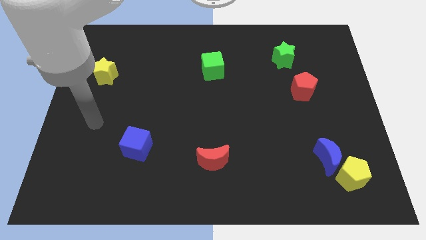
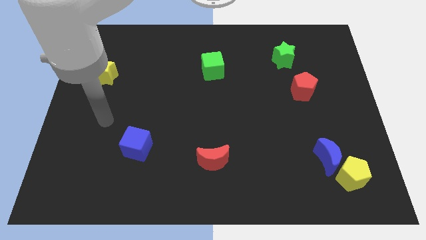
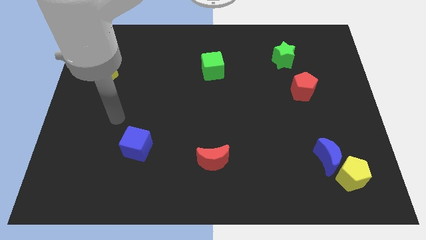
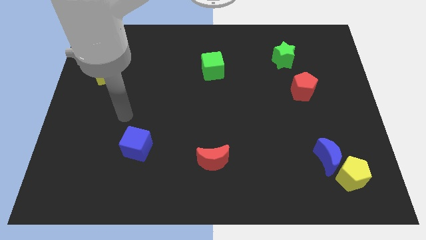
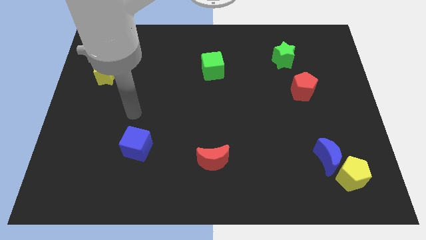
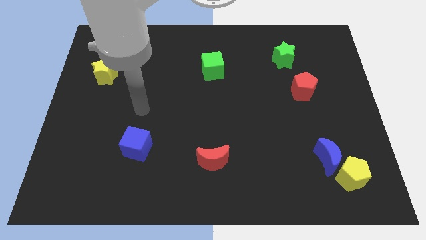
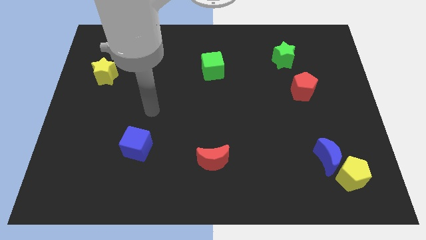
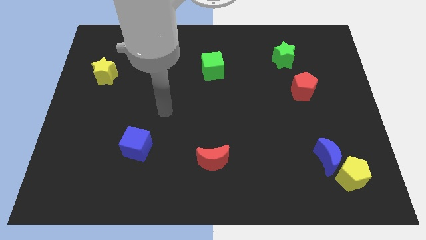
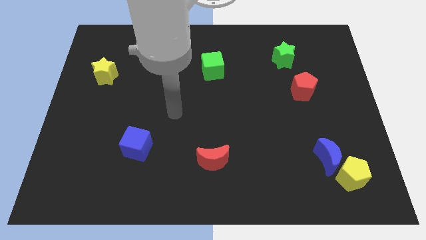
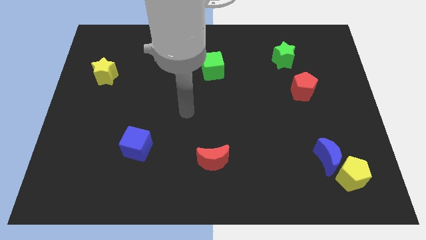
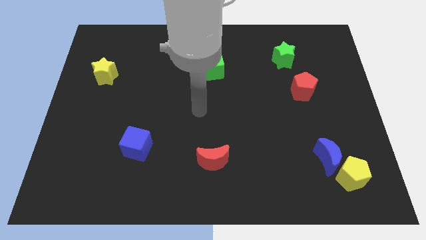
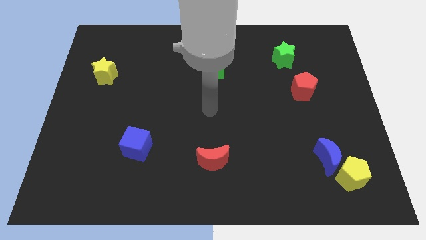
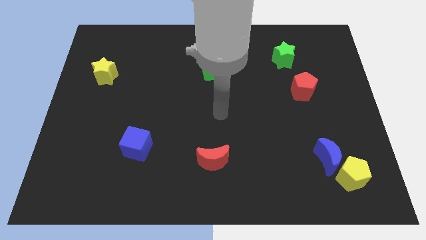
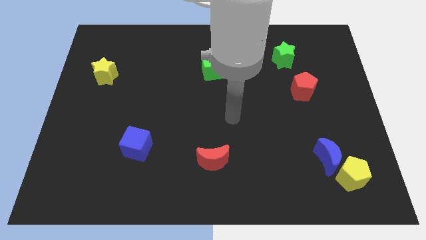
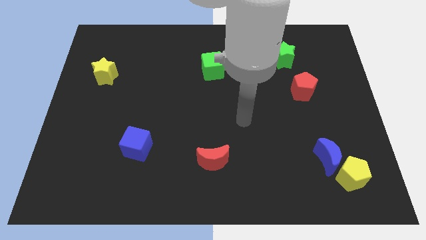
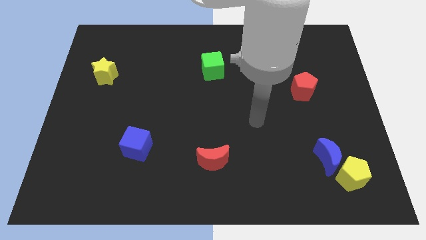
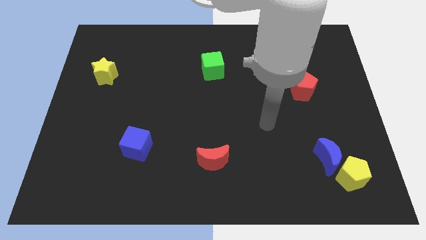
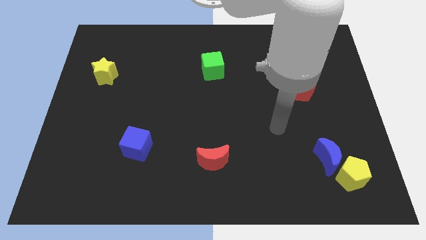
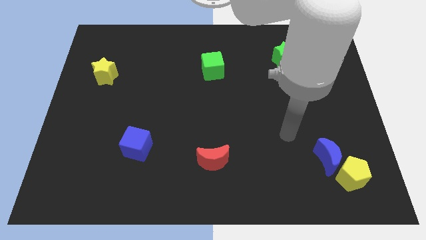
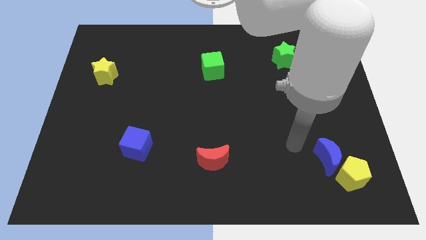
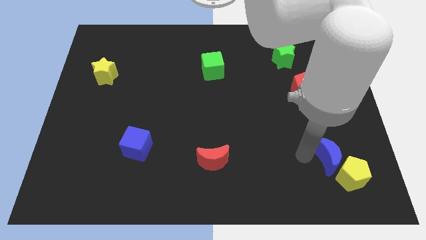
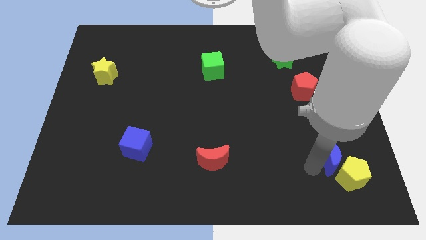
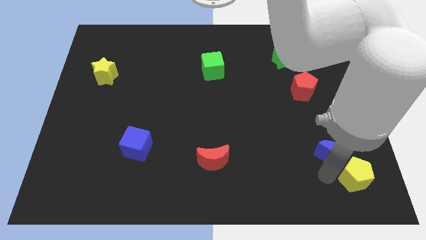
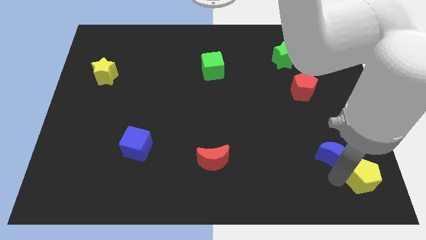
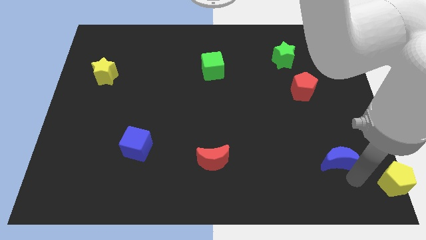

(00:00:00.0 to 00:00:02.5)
separate the blue moon from the yellow pentagon

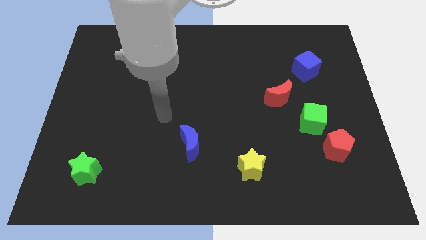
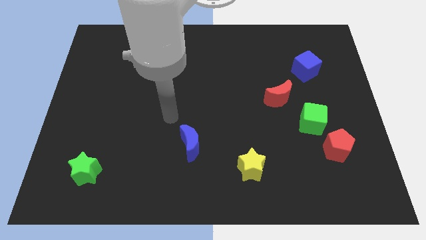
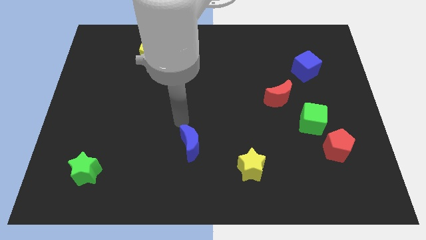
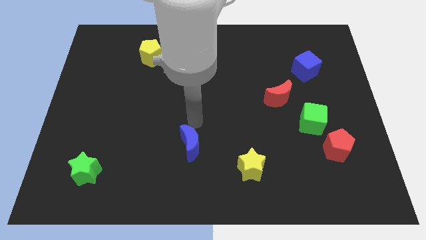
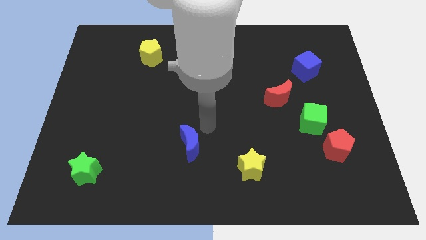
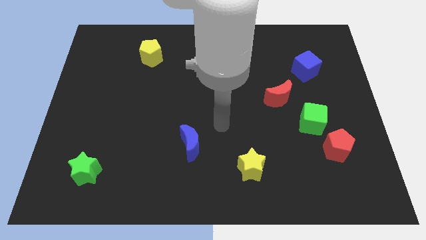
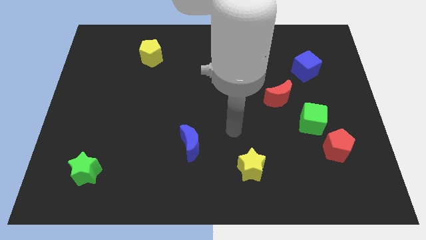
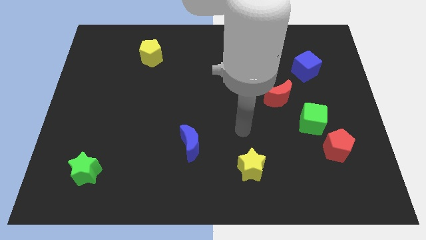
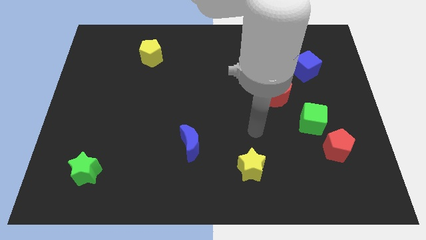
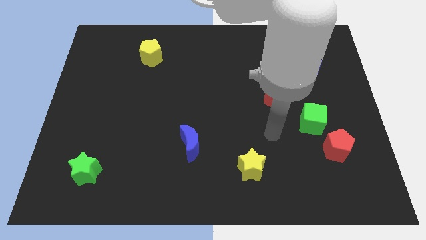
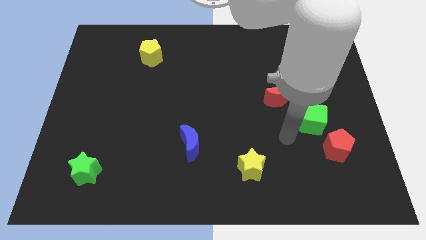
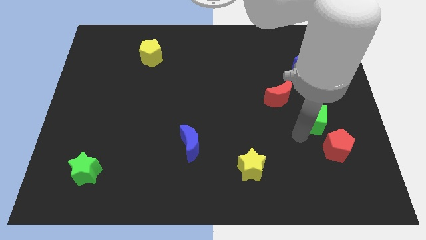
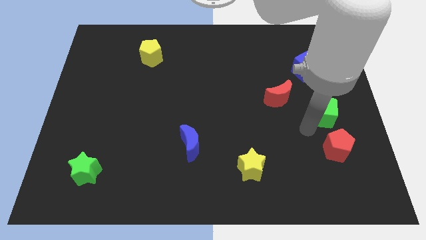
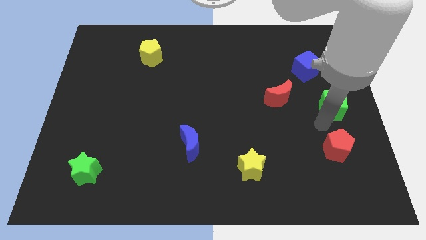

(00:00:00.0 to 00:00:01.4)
move the red pentagon away from the green cube

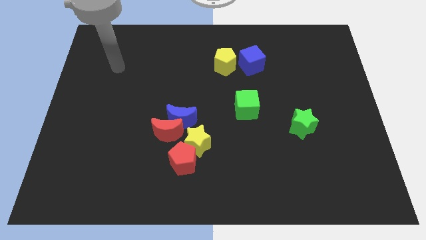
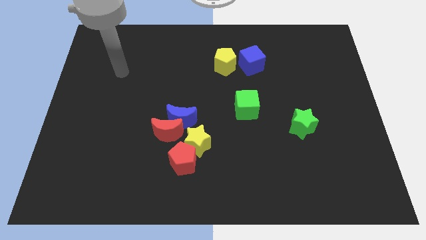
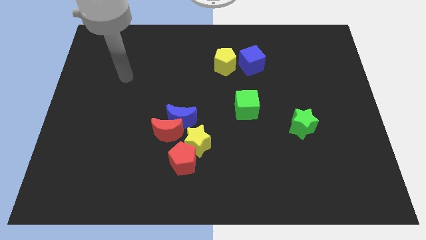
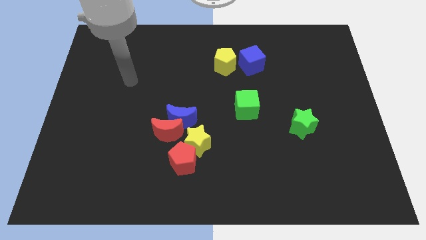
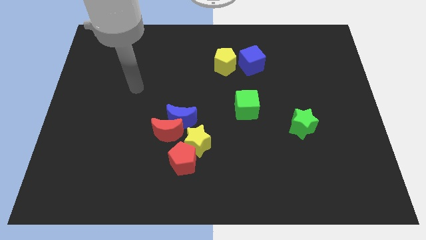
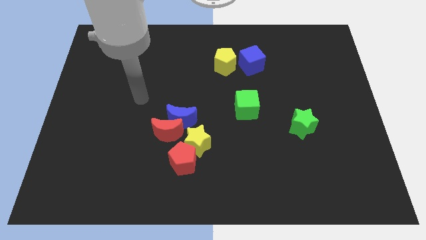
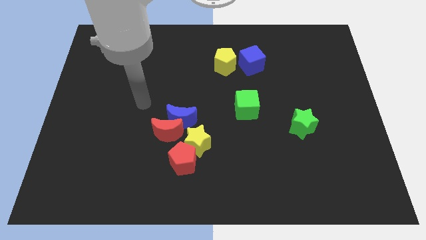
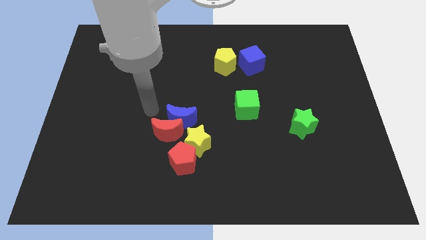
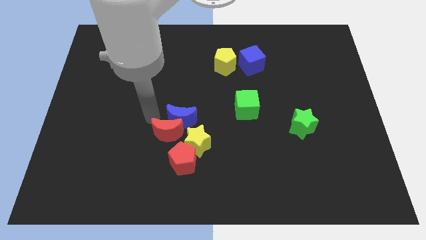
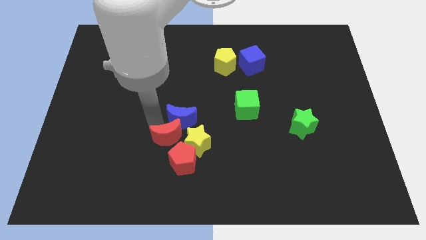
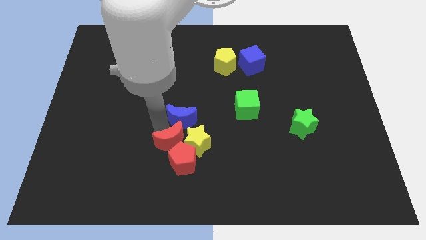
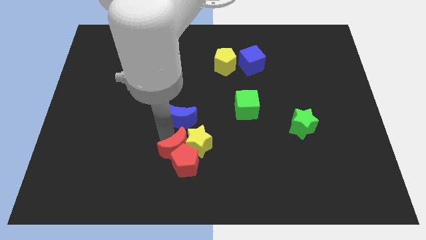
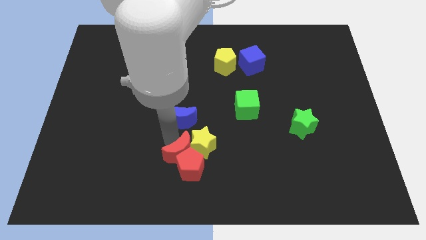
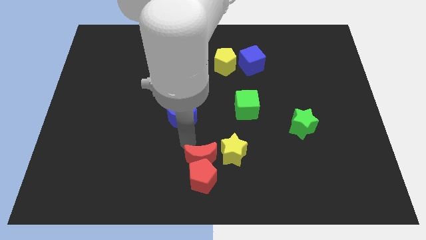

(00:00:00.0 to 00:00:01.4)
pull the blue moon apart from the red moon and yellow star

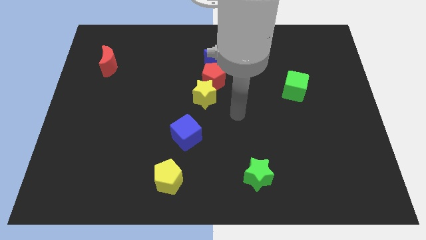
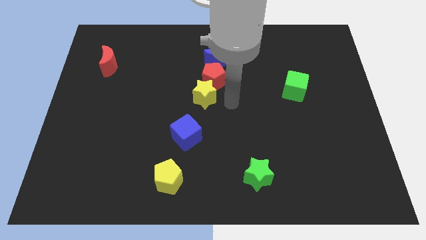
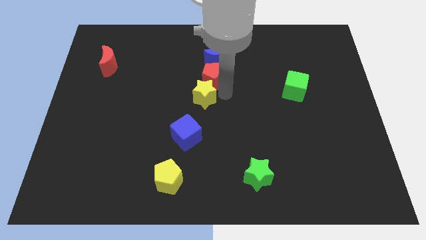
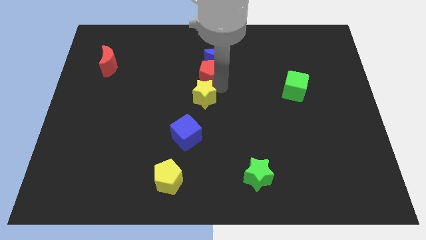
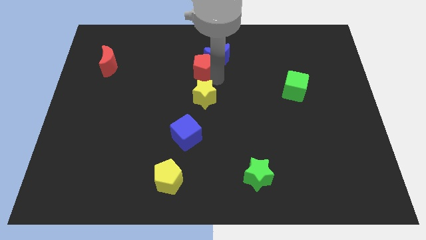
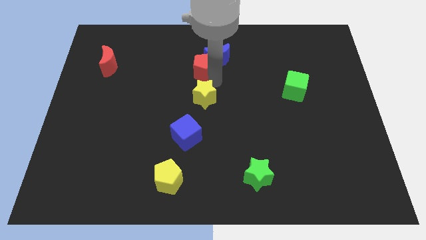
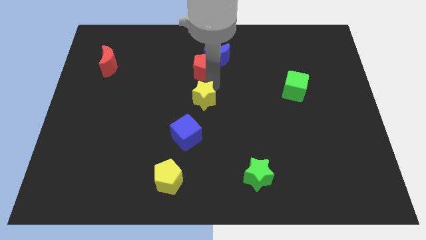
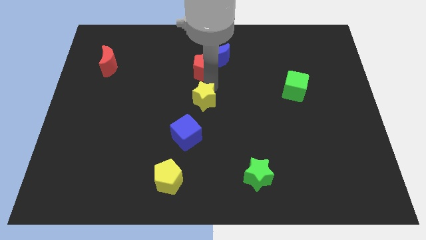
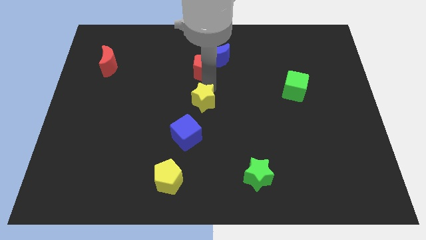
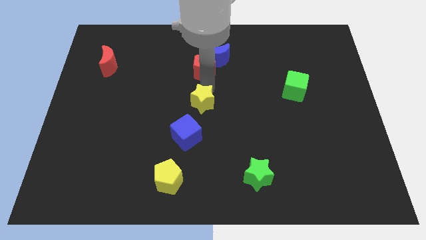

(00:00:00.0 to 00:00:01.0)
move the yellow star away from the red pentagon

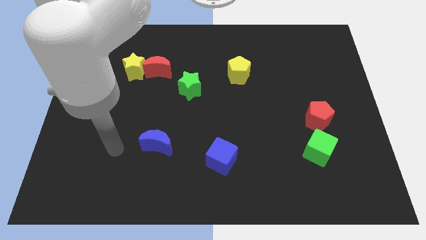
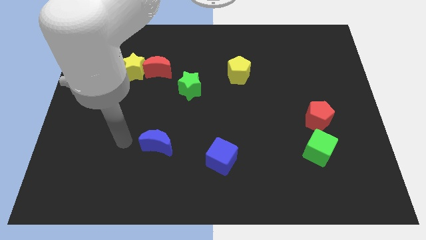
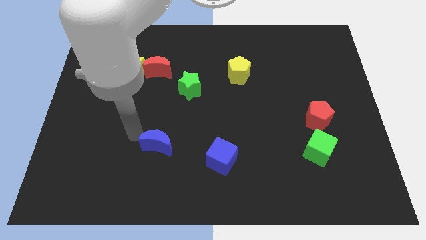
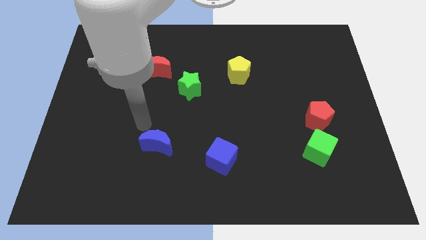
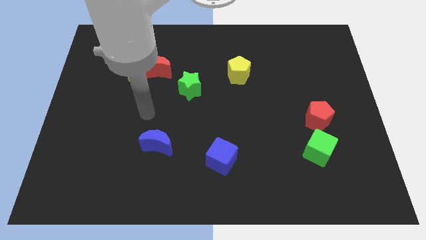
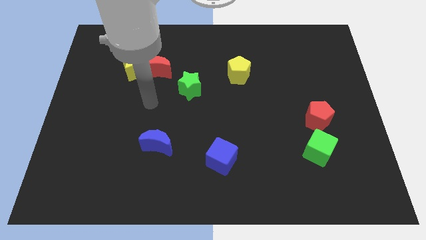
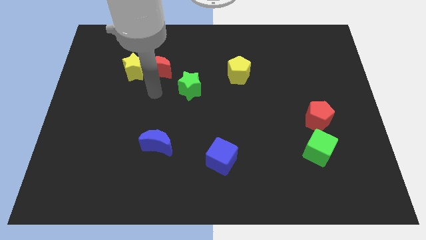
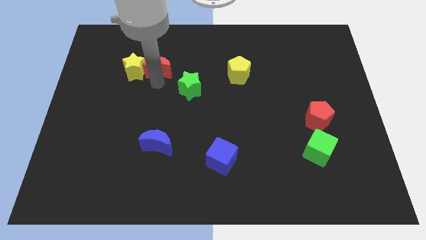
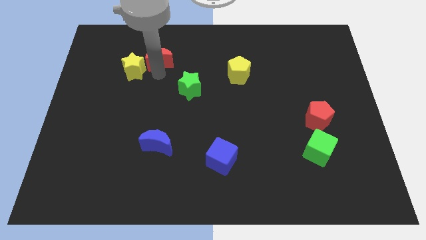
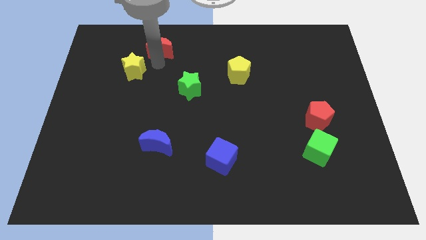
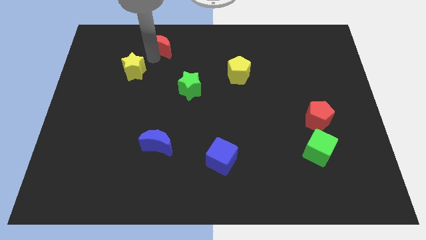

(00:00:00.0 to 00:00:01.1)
pull the yellow star apart from the red moon

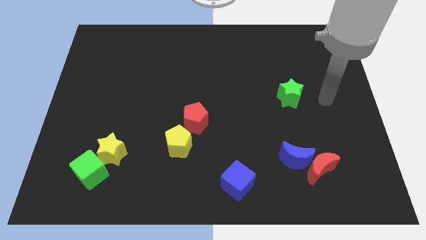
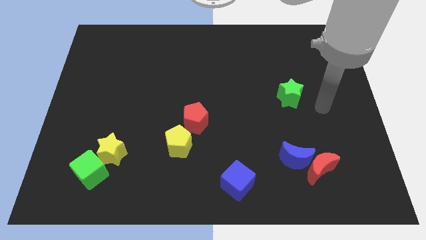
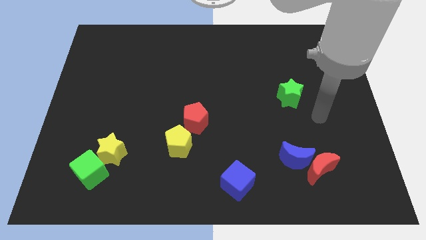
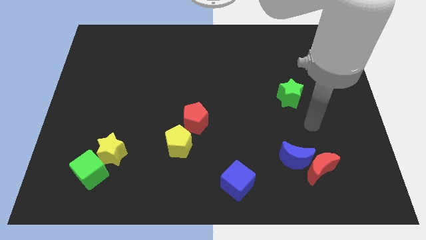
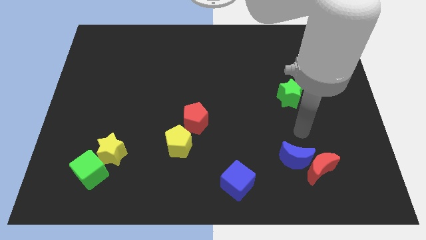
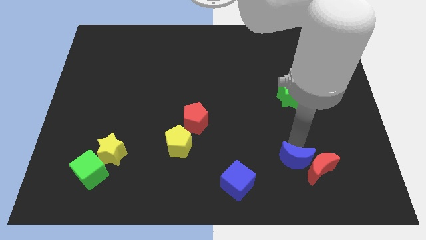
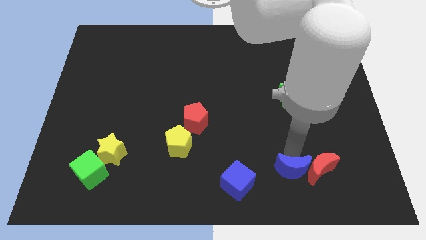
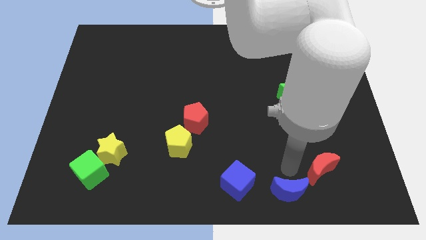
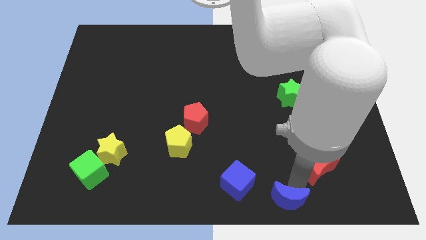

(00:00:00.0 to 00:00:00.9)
separate the red moon from the blue moon

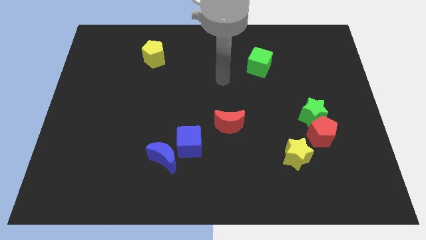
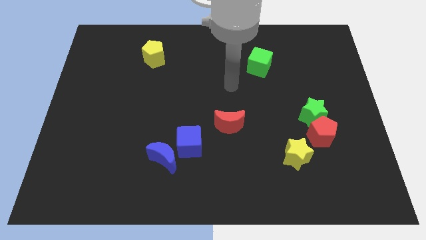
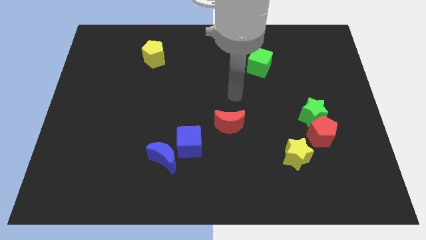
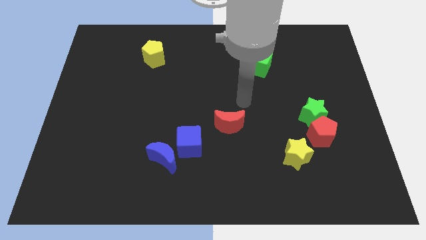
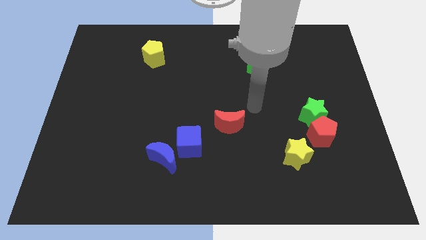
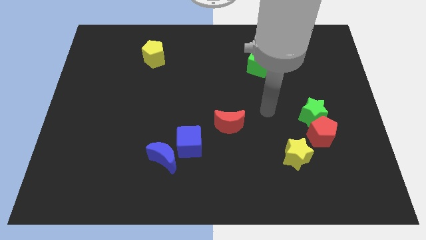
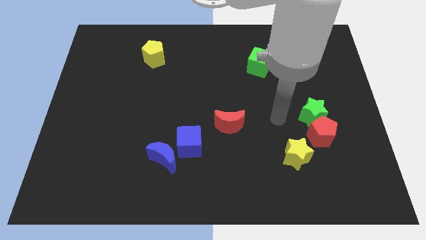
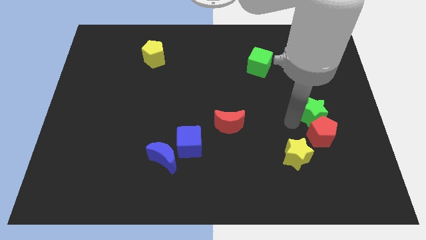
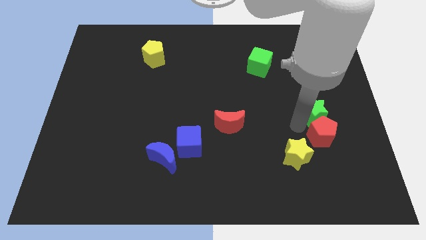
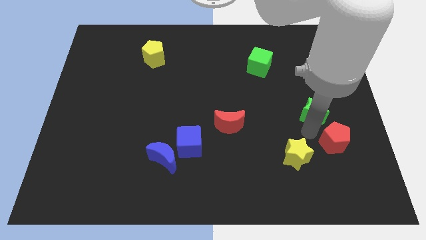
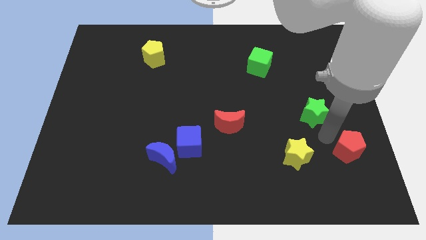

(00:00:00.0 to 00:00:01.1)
pull the green star apart from the red pentagon

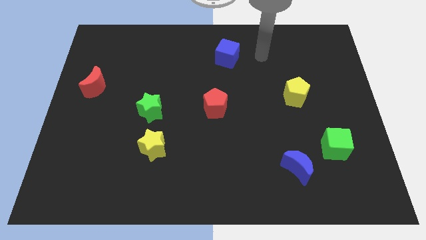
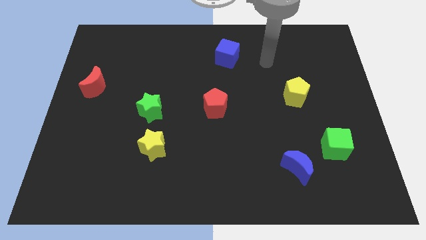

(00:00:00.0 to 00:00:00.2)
separate the blue moon from the green cube
